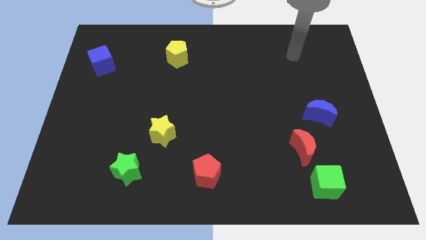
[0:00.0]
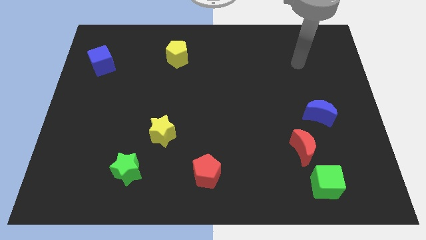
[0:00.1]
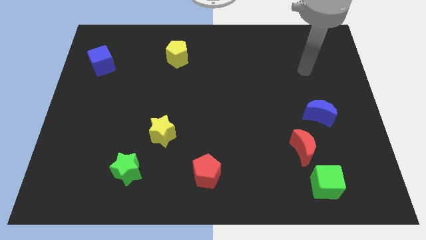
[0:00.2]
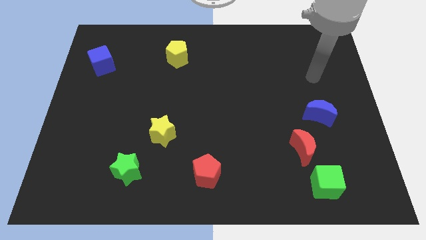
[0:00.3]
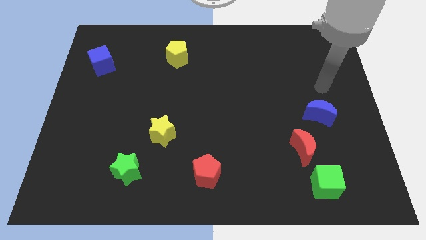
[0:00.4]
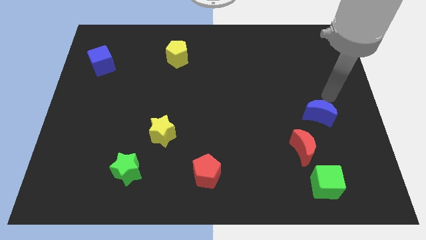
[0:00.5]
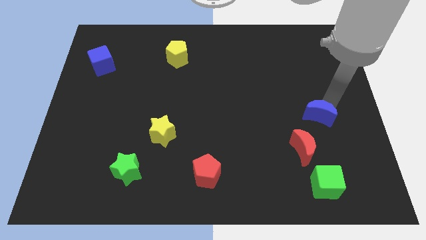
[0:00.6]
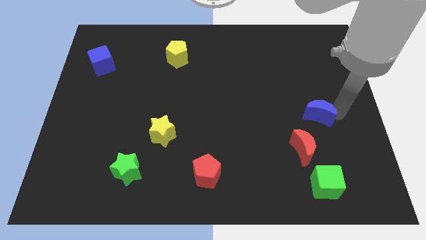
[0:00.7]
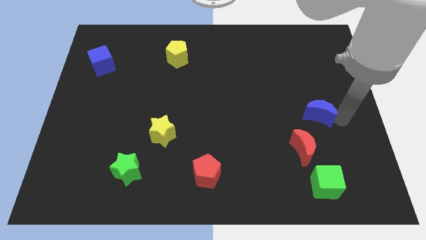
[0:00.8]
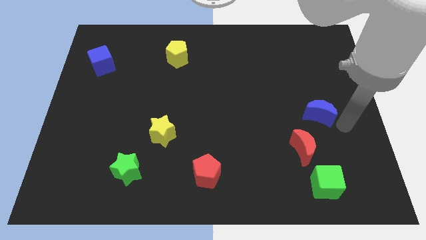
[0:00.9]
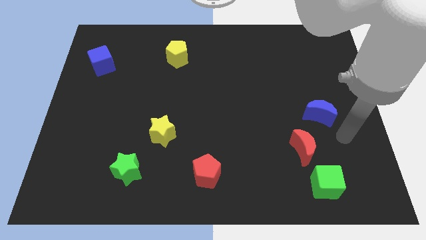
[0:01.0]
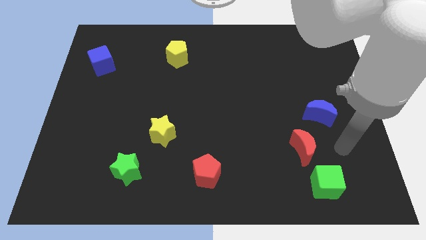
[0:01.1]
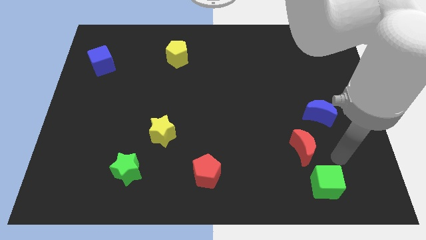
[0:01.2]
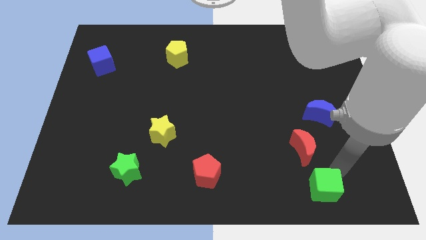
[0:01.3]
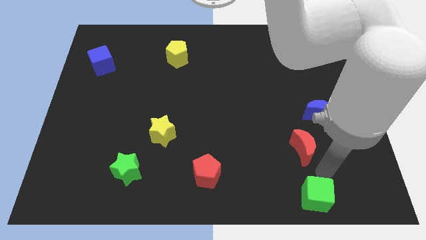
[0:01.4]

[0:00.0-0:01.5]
move the red moon away from the green cube

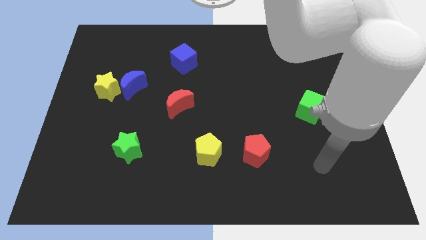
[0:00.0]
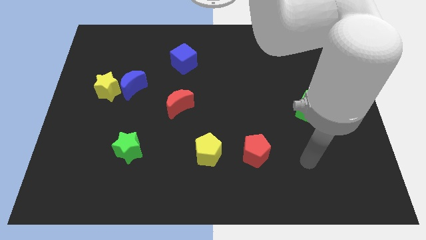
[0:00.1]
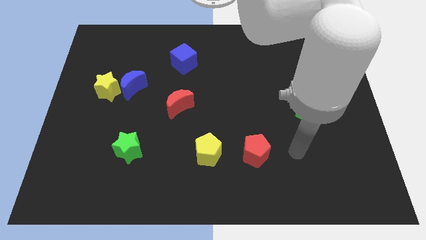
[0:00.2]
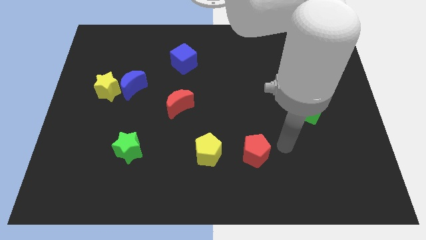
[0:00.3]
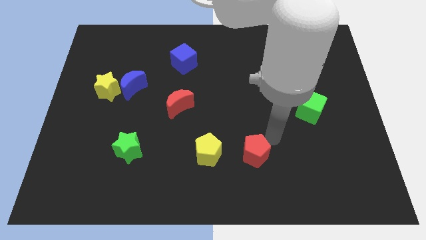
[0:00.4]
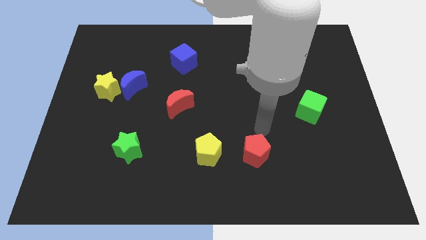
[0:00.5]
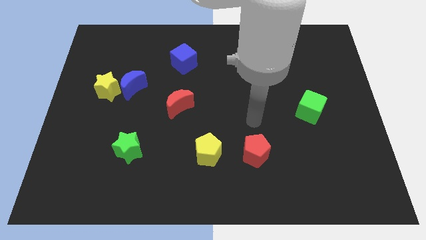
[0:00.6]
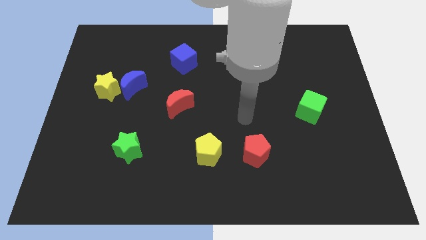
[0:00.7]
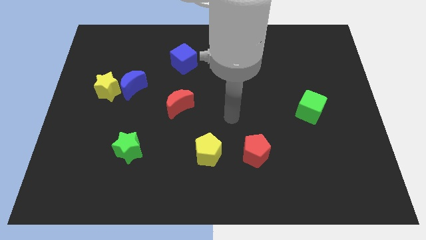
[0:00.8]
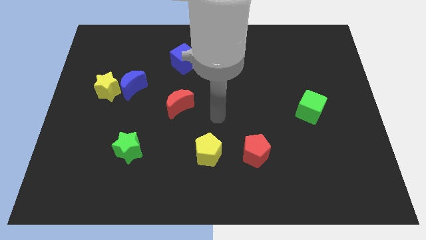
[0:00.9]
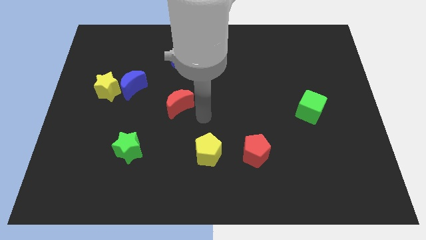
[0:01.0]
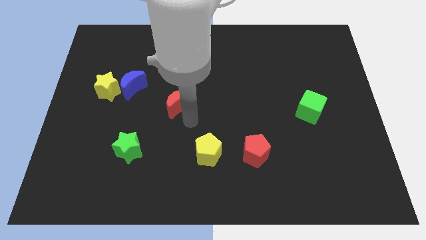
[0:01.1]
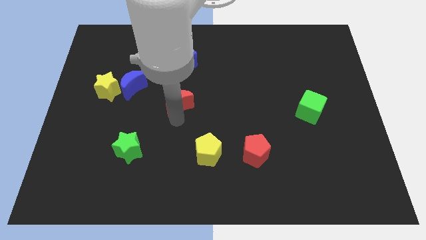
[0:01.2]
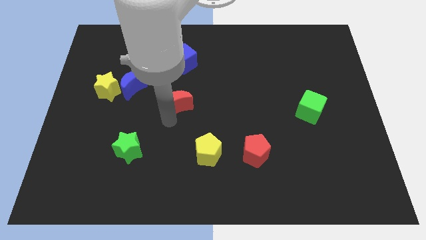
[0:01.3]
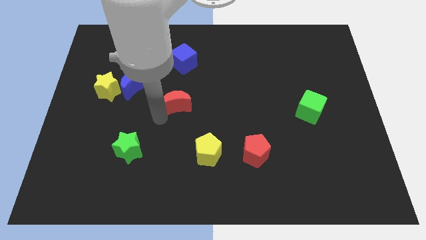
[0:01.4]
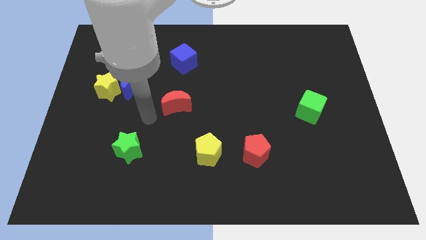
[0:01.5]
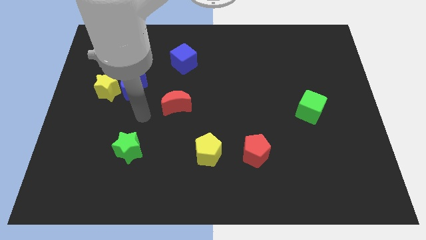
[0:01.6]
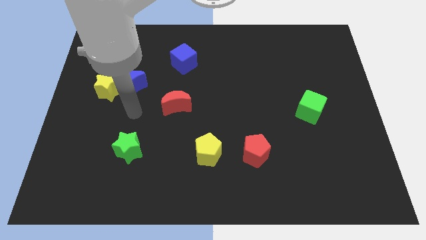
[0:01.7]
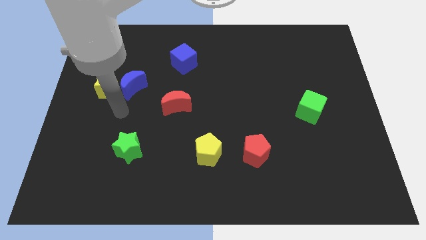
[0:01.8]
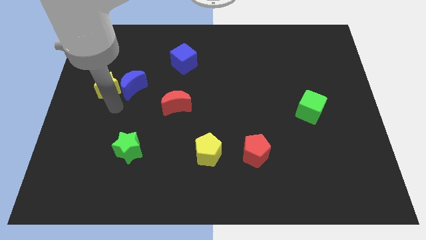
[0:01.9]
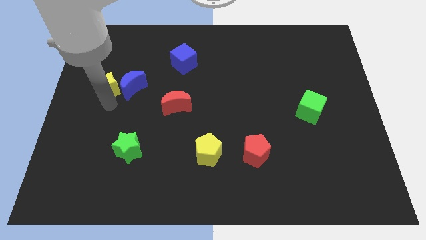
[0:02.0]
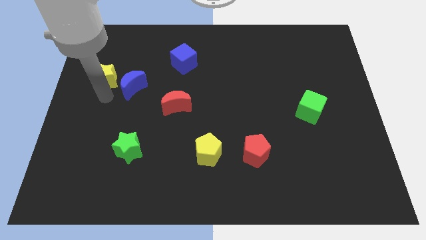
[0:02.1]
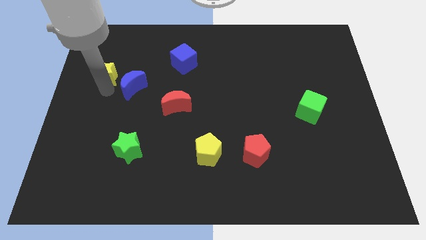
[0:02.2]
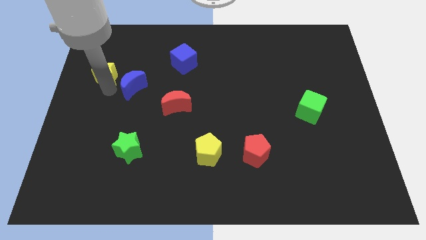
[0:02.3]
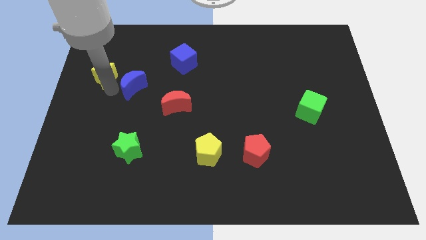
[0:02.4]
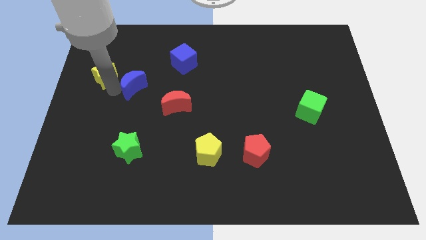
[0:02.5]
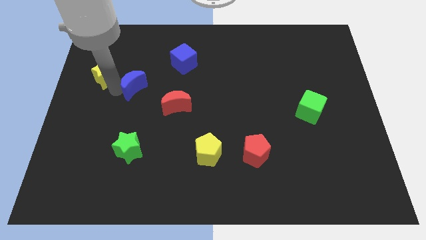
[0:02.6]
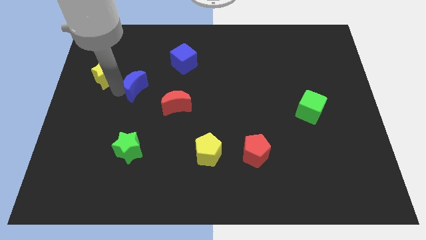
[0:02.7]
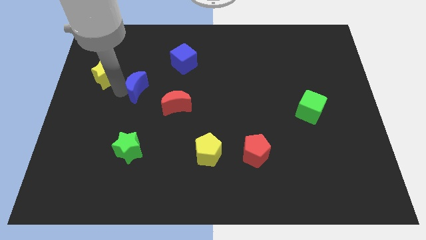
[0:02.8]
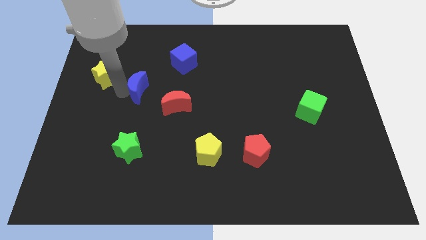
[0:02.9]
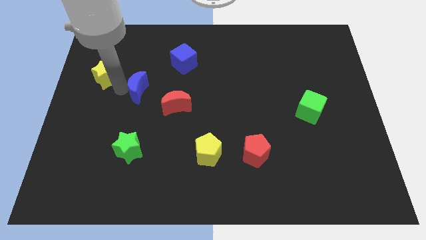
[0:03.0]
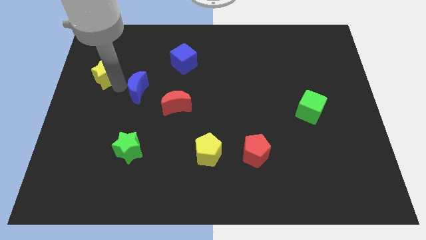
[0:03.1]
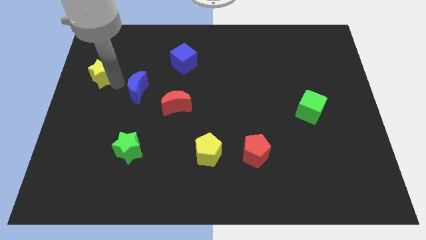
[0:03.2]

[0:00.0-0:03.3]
separate the blue moon from the yellow star

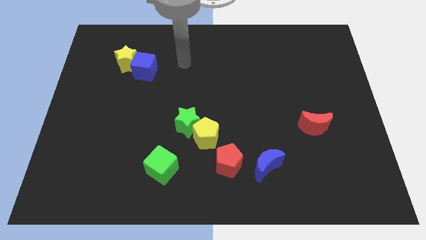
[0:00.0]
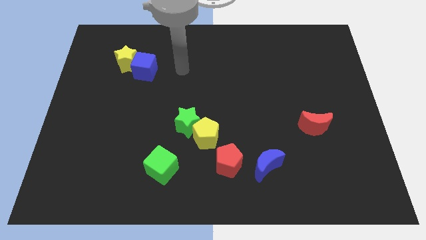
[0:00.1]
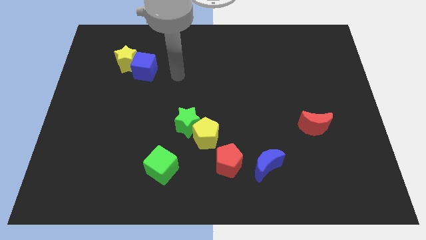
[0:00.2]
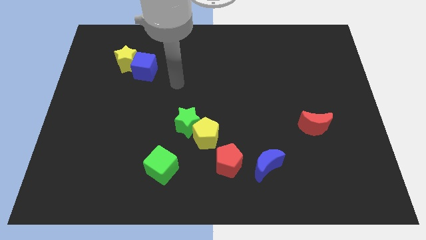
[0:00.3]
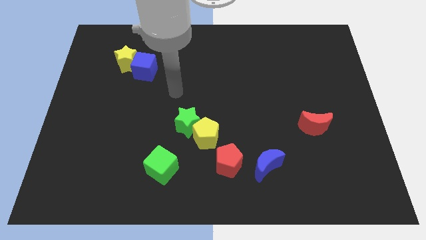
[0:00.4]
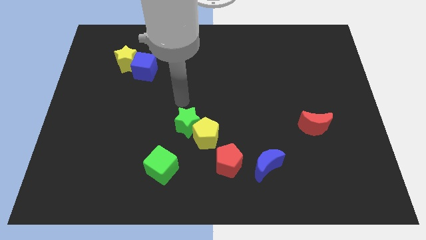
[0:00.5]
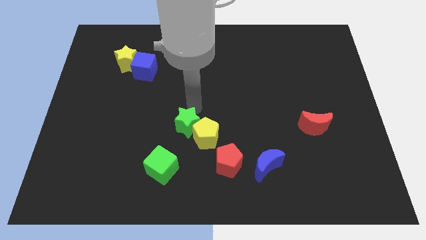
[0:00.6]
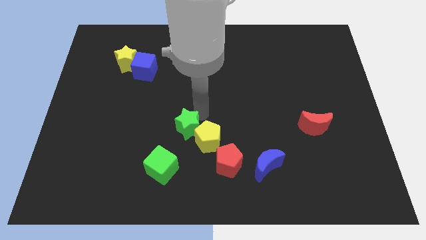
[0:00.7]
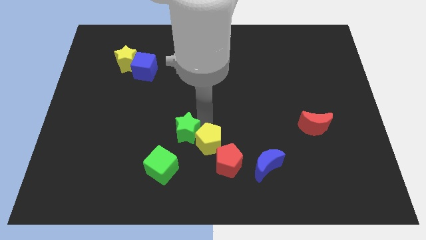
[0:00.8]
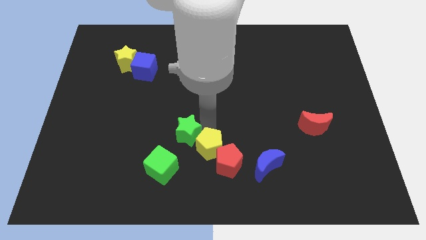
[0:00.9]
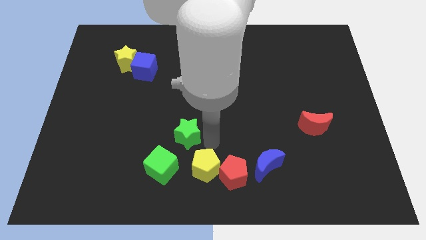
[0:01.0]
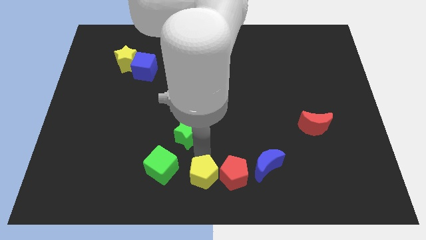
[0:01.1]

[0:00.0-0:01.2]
move the green star away from the yellow pentagon

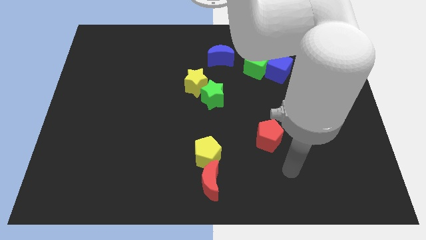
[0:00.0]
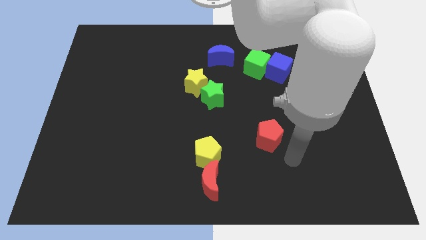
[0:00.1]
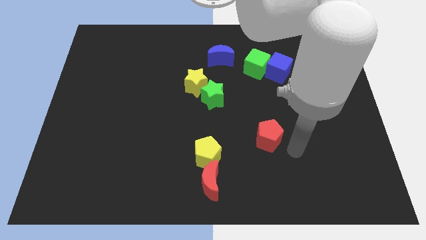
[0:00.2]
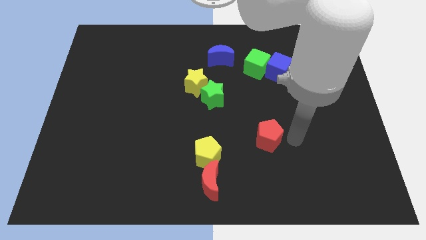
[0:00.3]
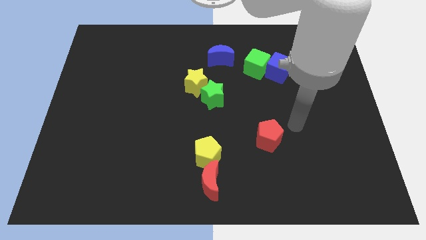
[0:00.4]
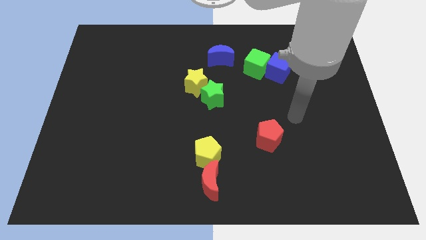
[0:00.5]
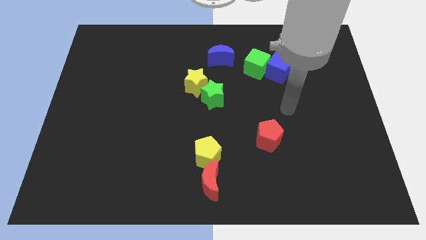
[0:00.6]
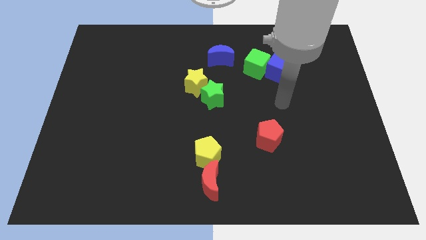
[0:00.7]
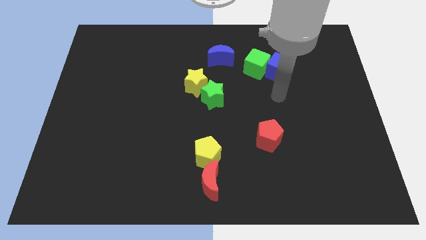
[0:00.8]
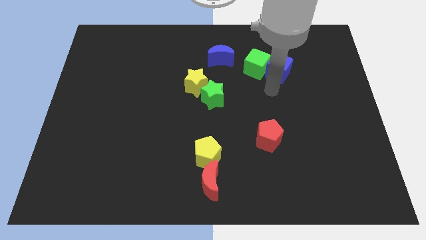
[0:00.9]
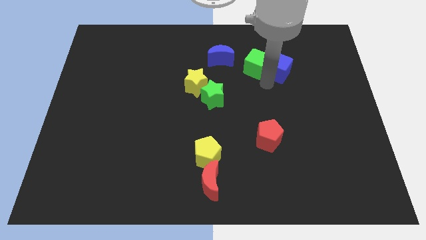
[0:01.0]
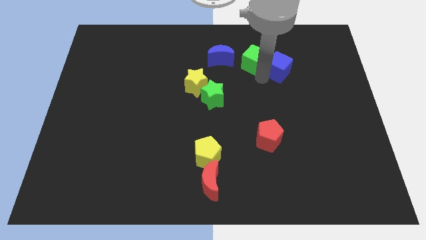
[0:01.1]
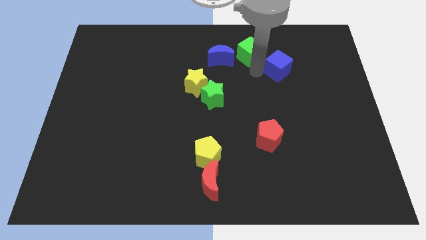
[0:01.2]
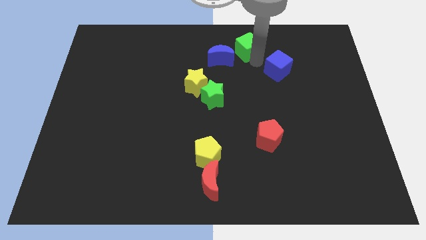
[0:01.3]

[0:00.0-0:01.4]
move the blue cube away from the green cube

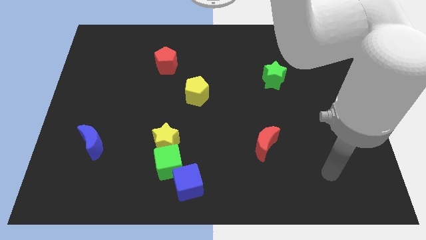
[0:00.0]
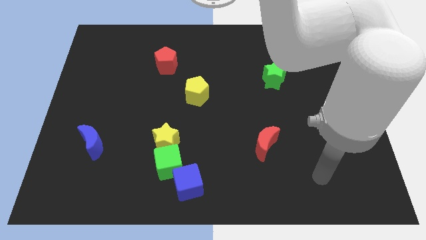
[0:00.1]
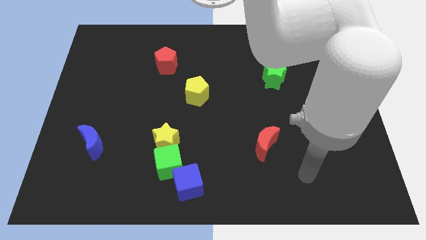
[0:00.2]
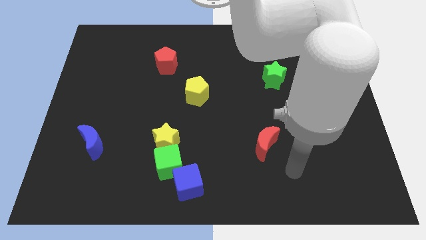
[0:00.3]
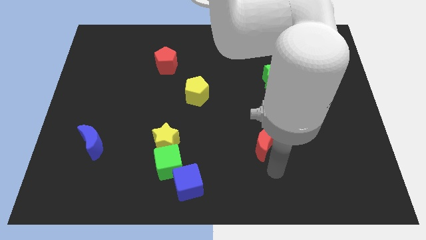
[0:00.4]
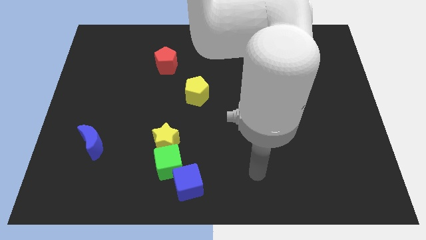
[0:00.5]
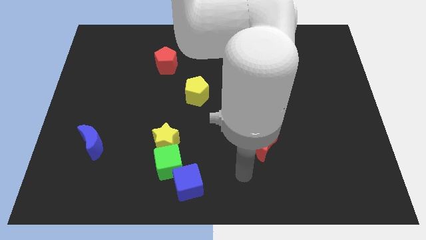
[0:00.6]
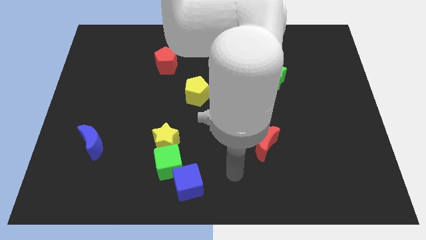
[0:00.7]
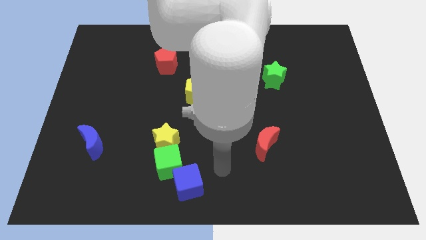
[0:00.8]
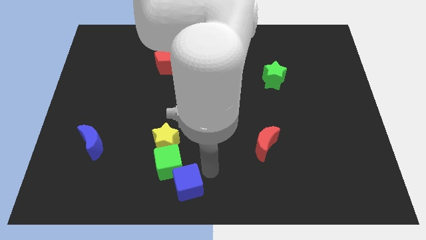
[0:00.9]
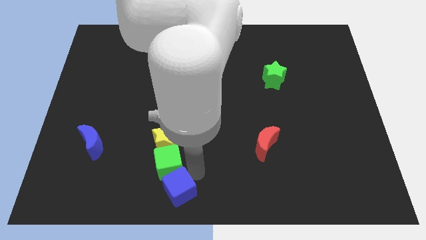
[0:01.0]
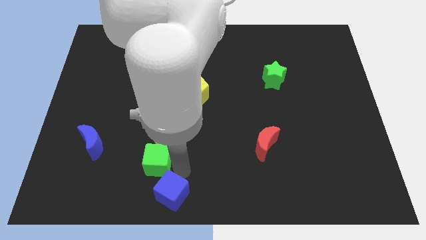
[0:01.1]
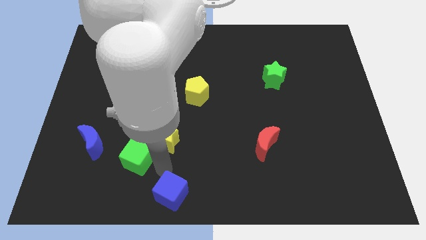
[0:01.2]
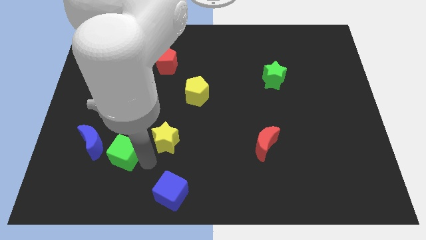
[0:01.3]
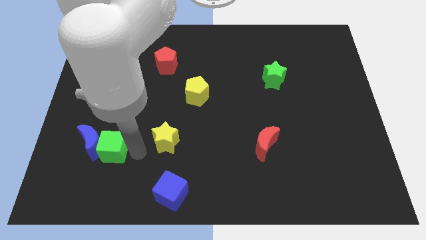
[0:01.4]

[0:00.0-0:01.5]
move the yellow star away from the green cube

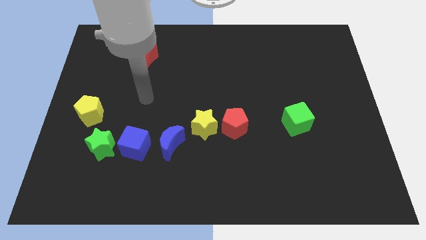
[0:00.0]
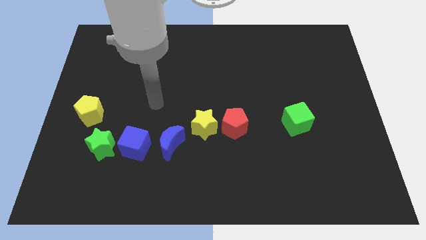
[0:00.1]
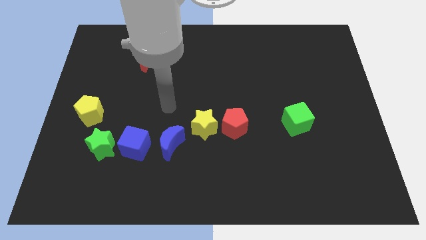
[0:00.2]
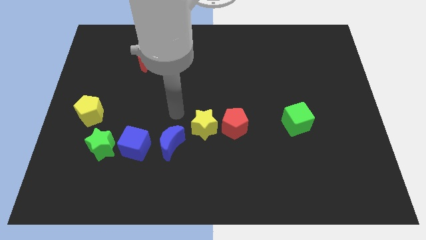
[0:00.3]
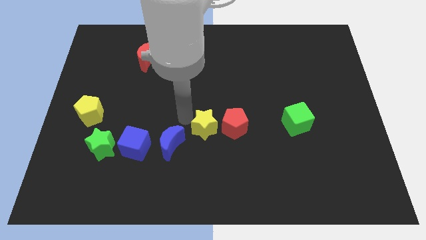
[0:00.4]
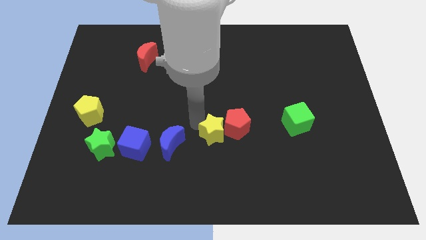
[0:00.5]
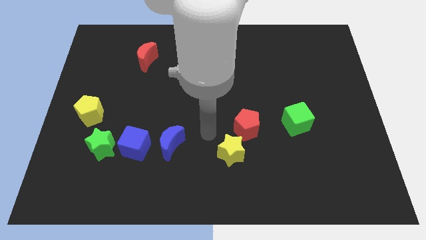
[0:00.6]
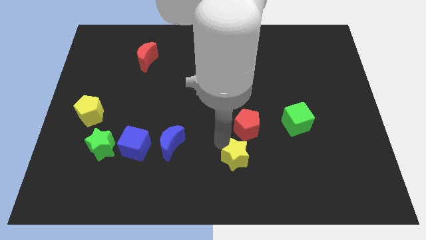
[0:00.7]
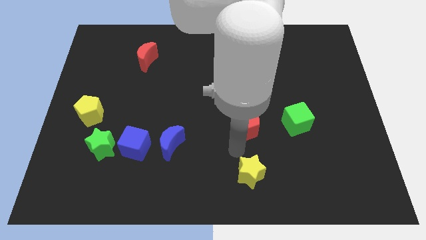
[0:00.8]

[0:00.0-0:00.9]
move the red pentagon away from the yellow star
